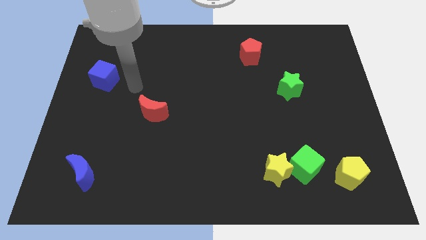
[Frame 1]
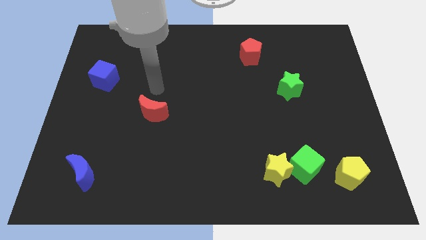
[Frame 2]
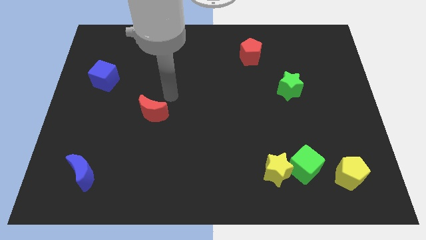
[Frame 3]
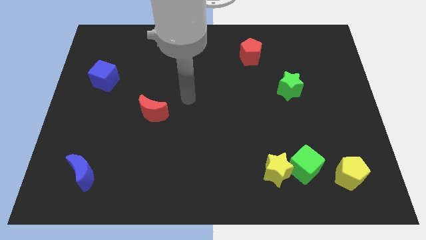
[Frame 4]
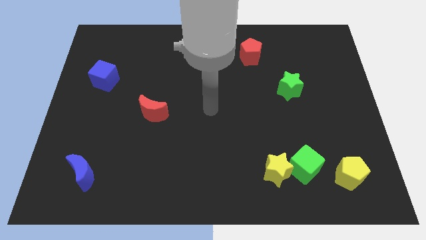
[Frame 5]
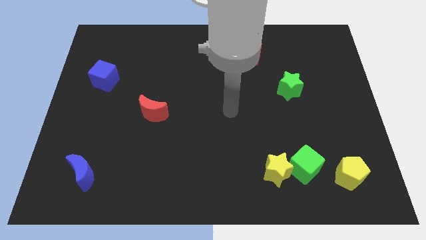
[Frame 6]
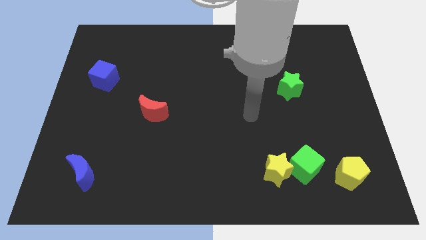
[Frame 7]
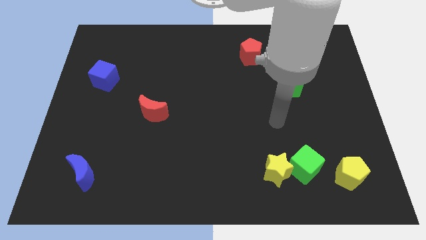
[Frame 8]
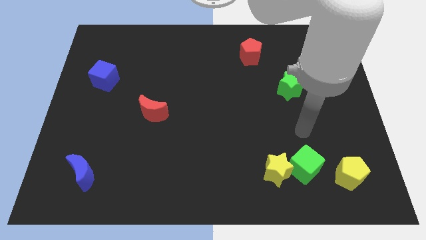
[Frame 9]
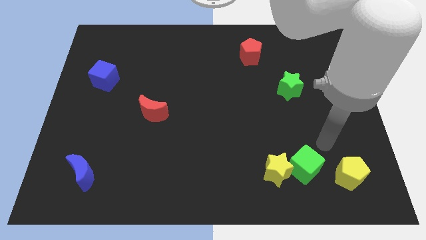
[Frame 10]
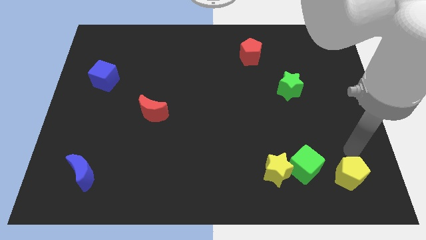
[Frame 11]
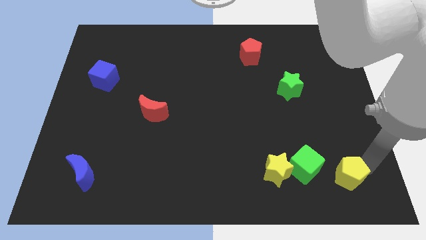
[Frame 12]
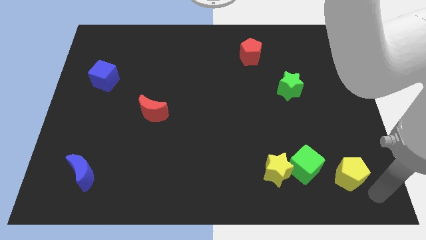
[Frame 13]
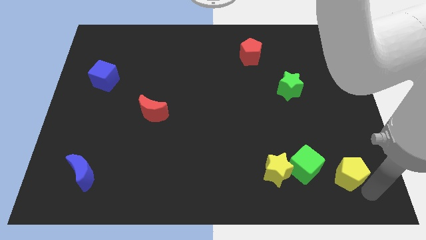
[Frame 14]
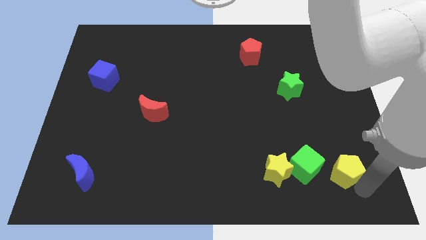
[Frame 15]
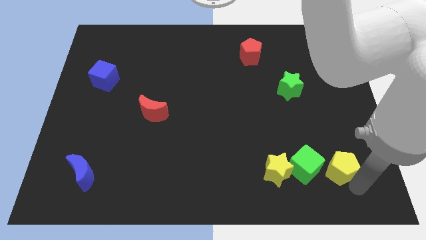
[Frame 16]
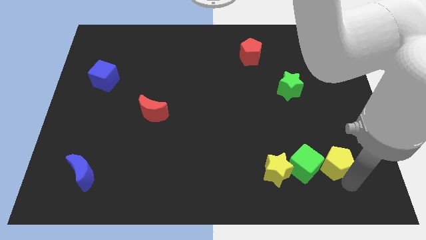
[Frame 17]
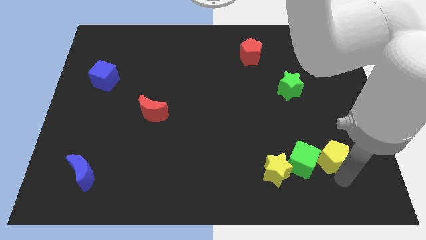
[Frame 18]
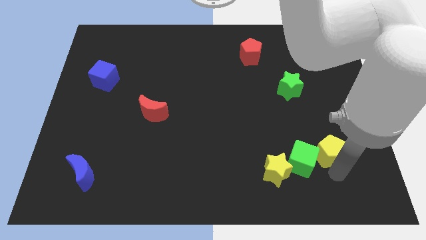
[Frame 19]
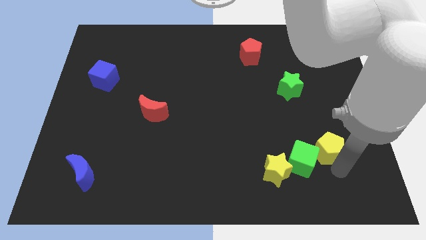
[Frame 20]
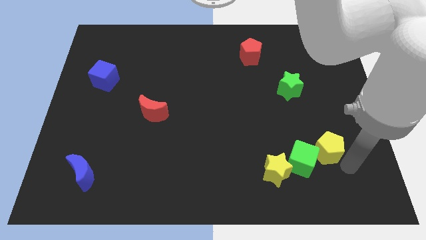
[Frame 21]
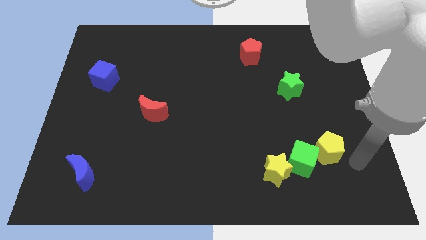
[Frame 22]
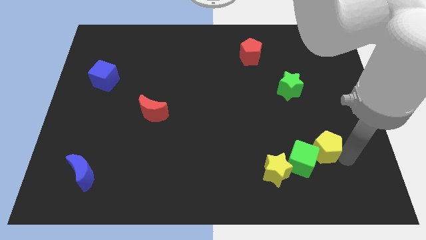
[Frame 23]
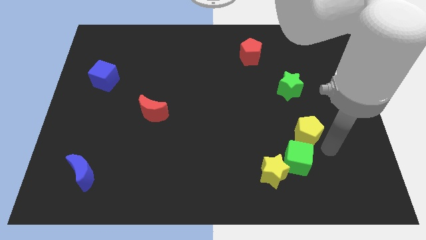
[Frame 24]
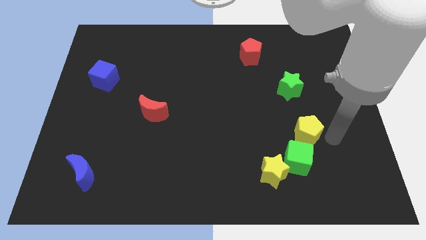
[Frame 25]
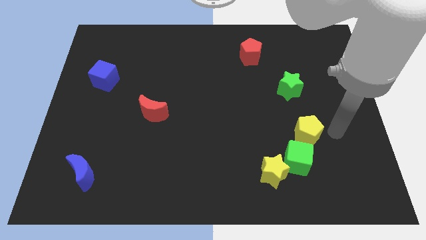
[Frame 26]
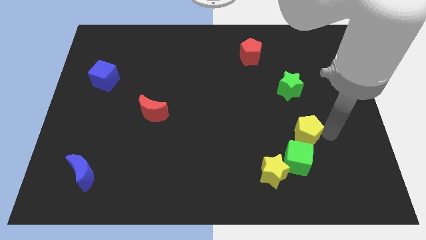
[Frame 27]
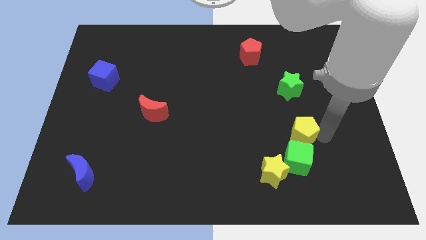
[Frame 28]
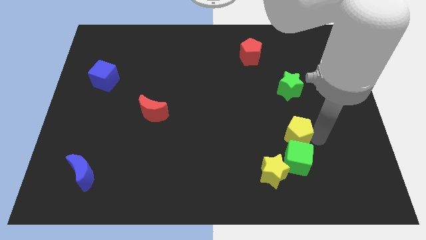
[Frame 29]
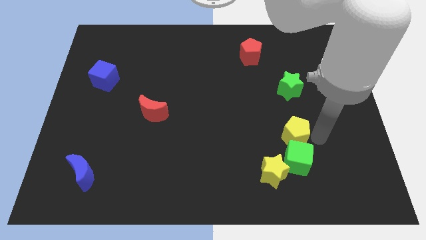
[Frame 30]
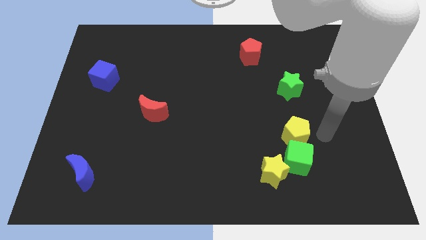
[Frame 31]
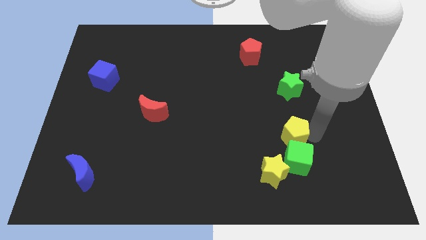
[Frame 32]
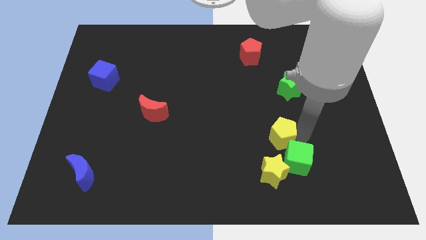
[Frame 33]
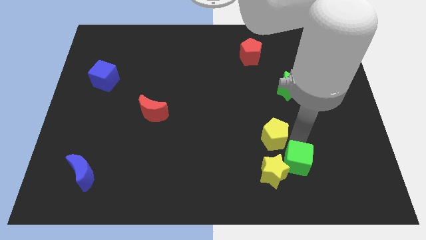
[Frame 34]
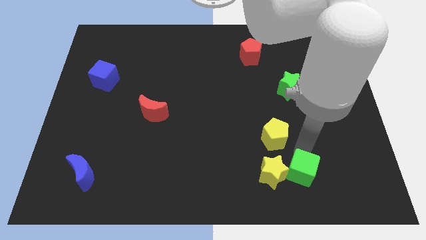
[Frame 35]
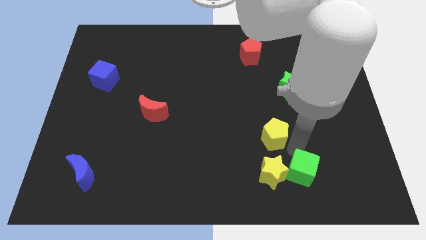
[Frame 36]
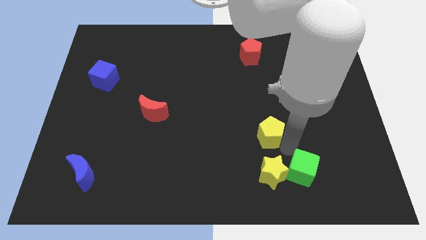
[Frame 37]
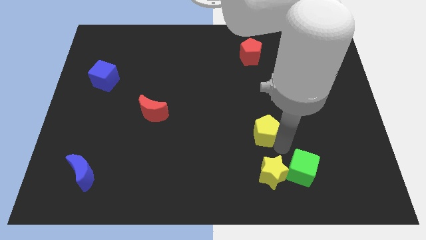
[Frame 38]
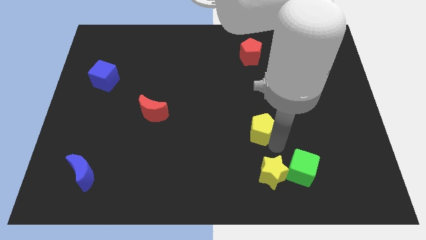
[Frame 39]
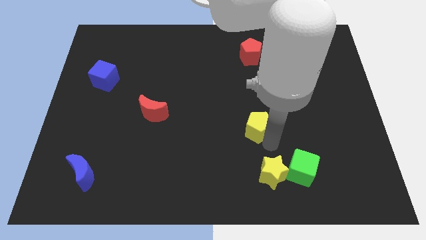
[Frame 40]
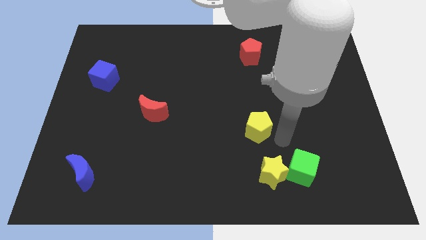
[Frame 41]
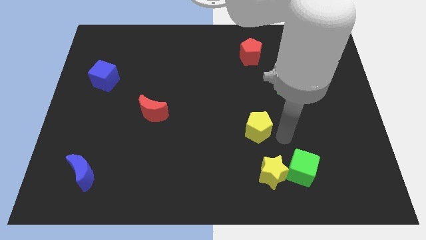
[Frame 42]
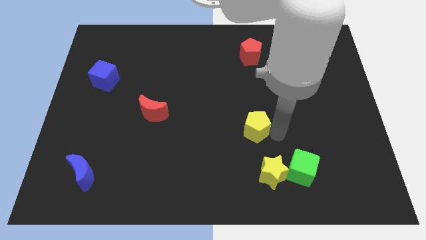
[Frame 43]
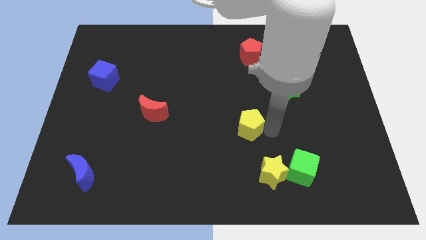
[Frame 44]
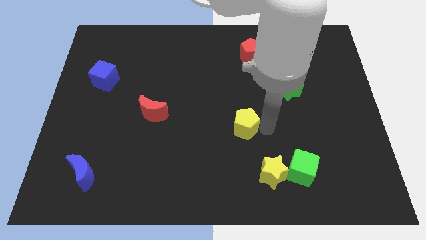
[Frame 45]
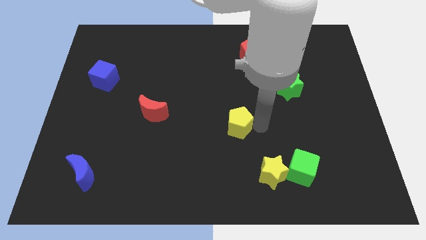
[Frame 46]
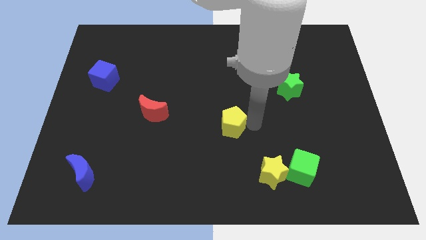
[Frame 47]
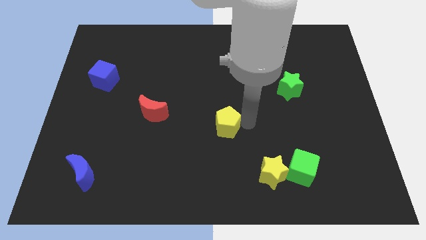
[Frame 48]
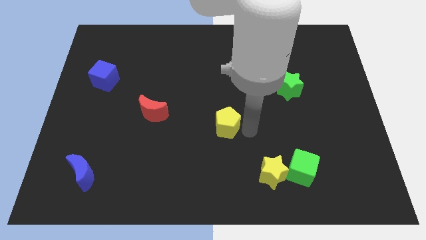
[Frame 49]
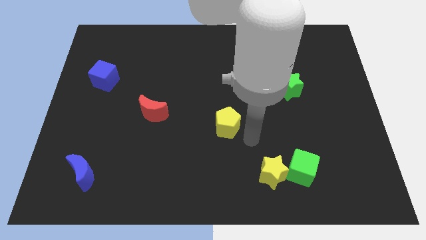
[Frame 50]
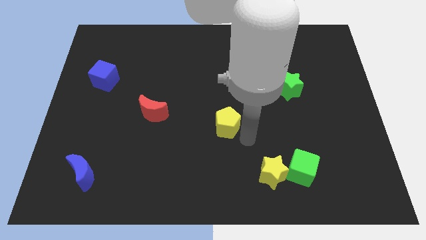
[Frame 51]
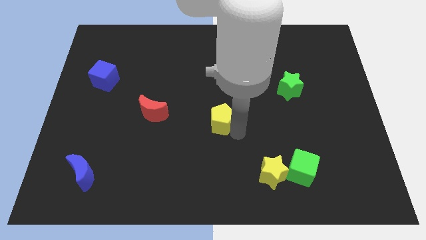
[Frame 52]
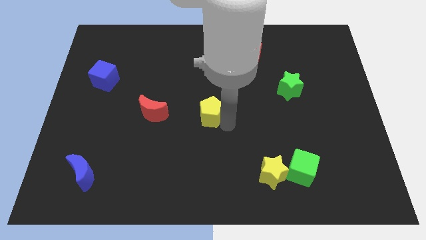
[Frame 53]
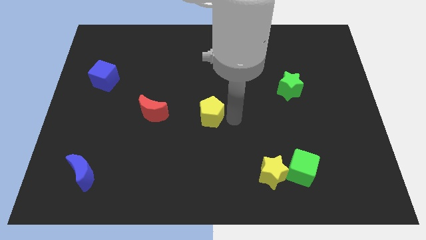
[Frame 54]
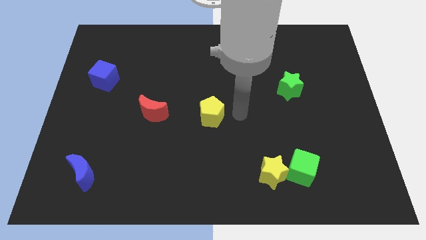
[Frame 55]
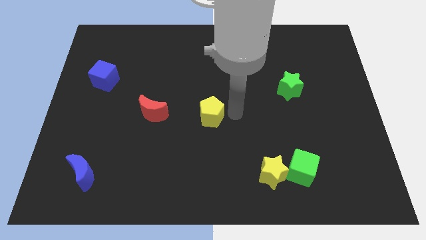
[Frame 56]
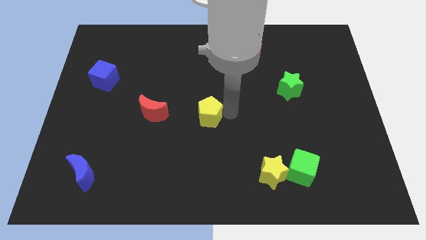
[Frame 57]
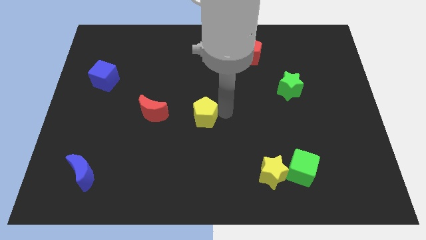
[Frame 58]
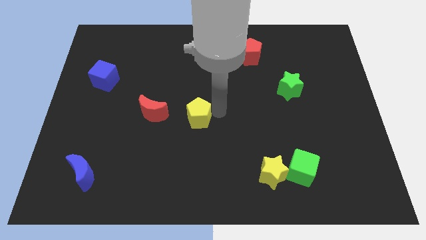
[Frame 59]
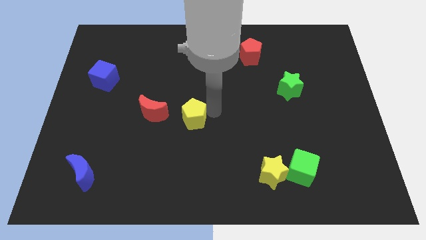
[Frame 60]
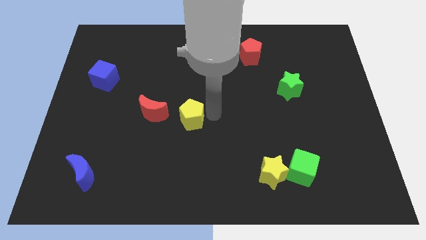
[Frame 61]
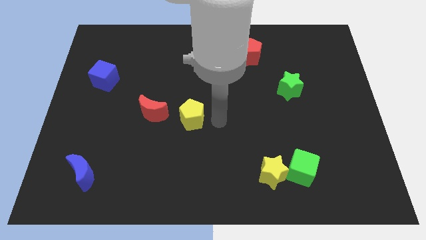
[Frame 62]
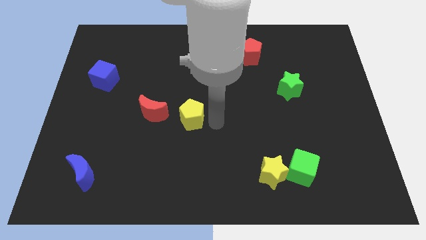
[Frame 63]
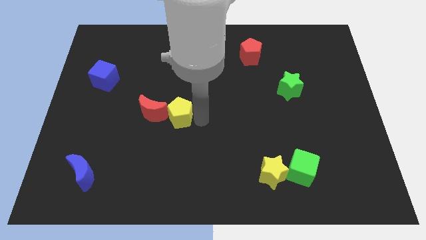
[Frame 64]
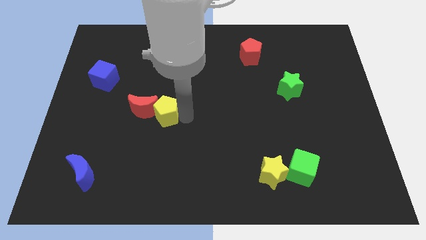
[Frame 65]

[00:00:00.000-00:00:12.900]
push the yellow pentagon close to the red moon

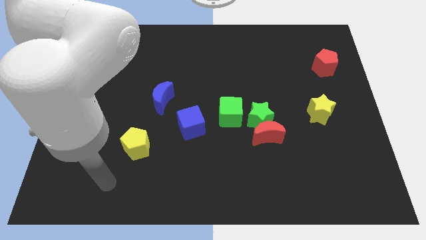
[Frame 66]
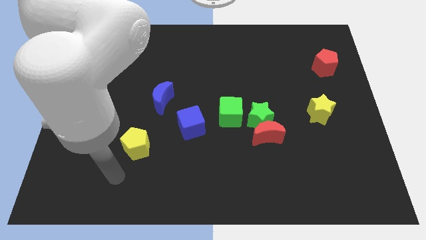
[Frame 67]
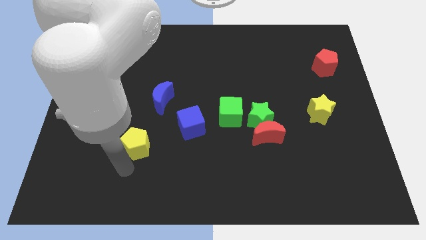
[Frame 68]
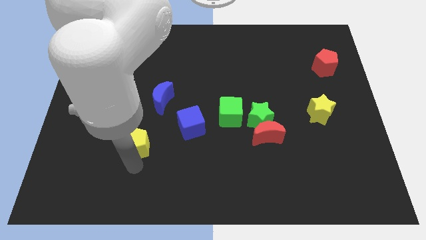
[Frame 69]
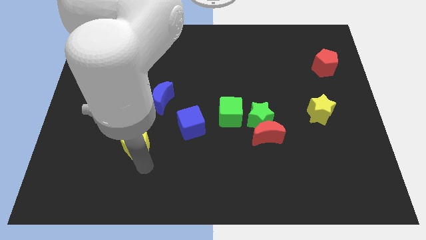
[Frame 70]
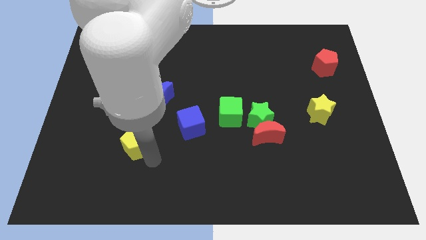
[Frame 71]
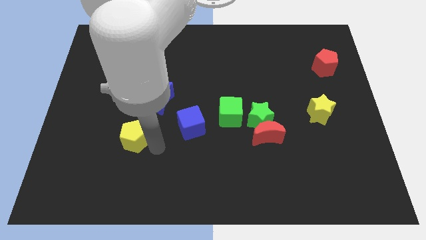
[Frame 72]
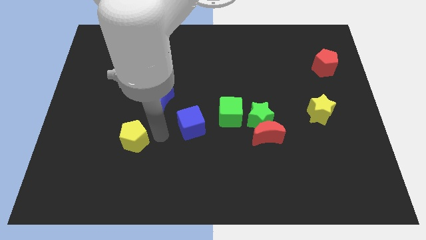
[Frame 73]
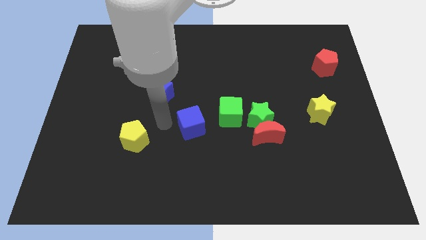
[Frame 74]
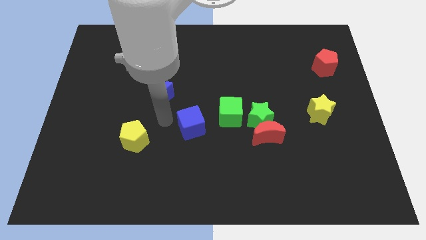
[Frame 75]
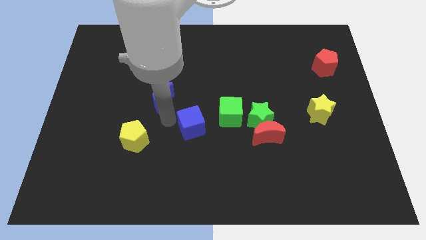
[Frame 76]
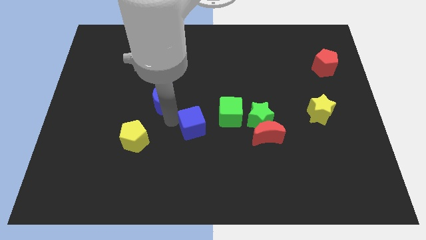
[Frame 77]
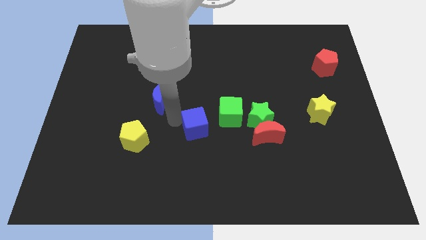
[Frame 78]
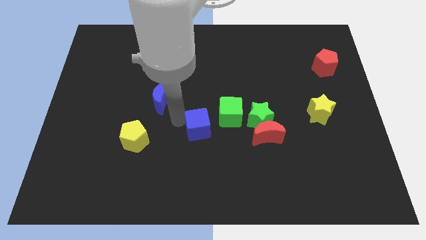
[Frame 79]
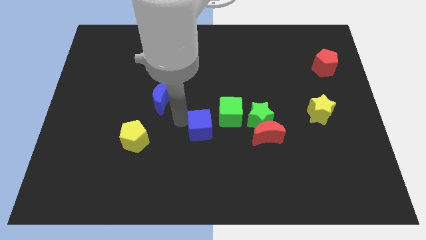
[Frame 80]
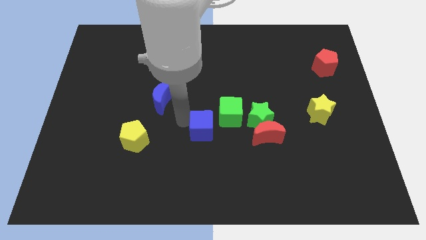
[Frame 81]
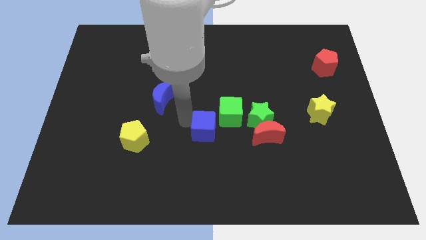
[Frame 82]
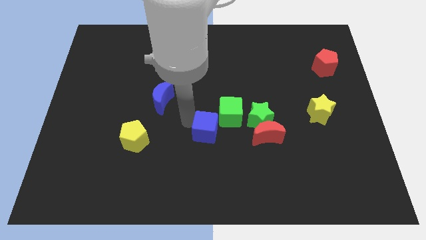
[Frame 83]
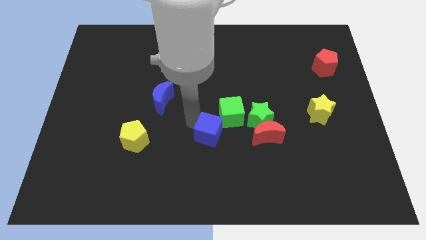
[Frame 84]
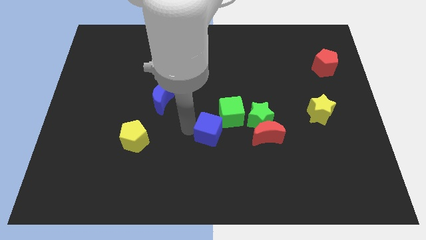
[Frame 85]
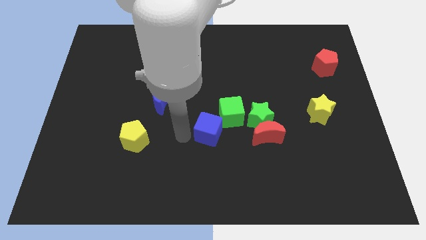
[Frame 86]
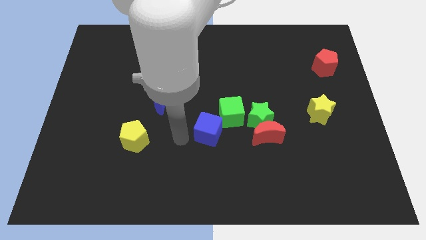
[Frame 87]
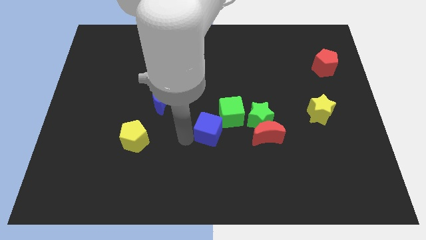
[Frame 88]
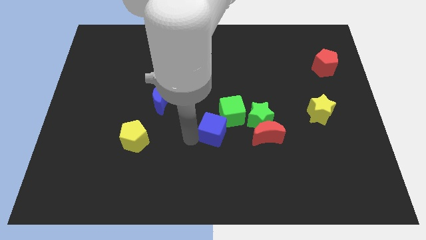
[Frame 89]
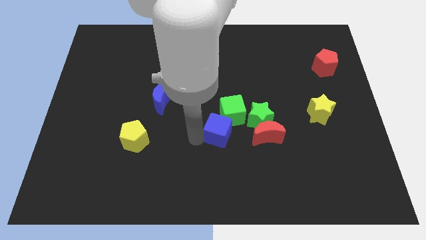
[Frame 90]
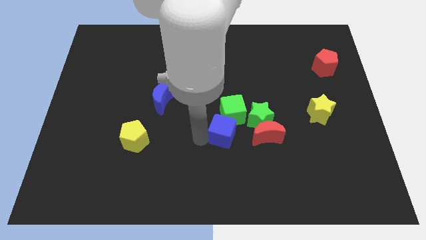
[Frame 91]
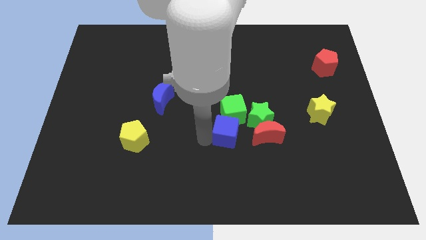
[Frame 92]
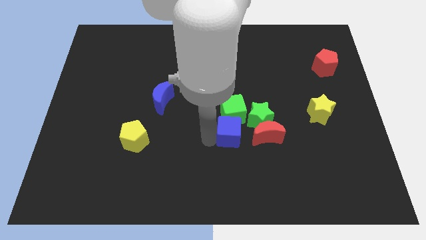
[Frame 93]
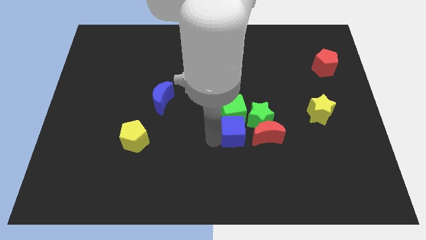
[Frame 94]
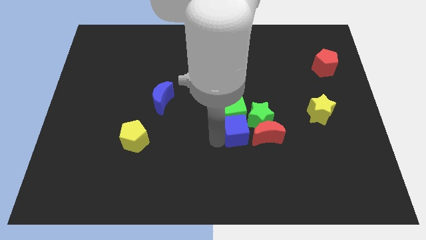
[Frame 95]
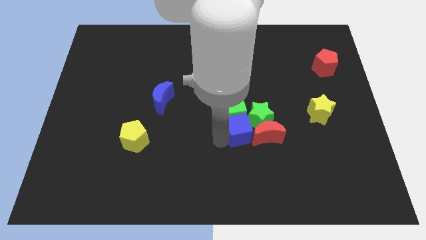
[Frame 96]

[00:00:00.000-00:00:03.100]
move the blue cube to the green star
